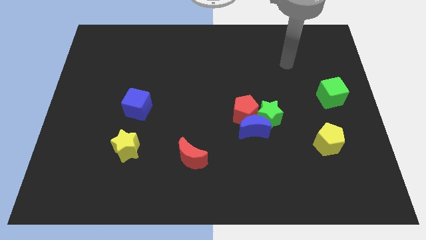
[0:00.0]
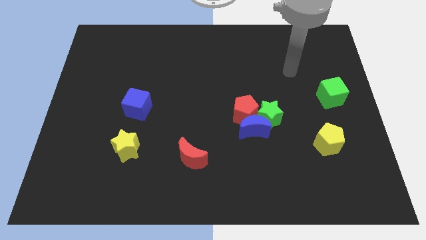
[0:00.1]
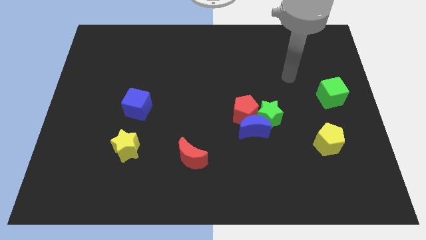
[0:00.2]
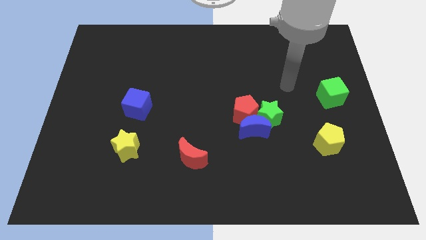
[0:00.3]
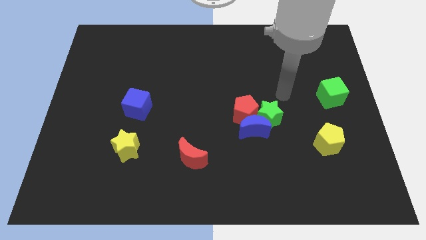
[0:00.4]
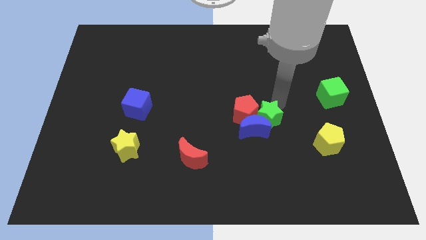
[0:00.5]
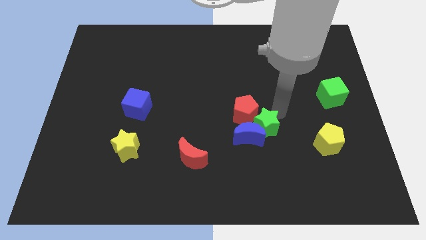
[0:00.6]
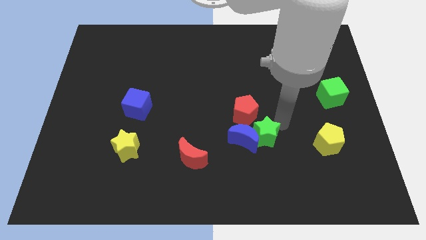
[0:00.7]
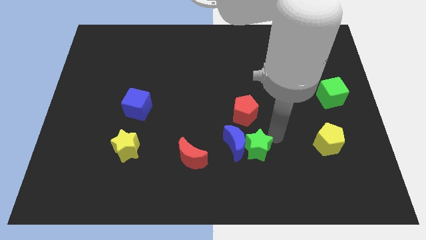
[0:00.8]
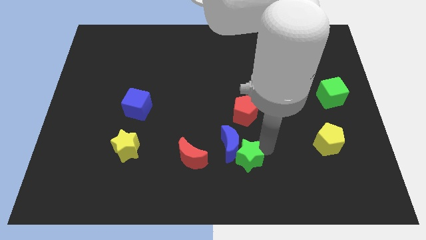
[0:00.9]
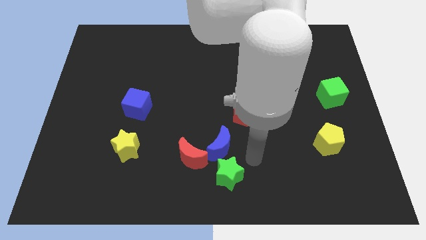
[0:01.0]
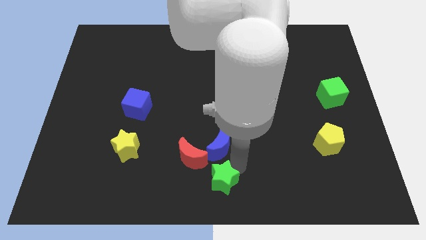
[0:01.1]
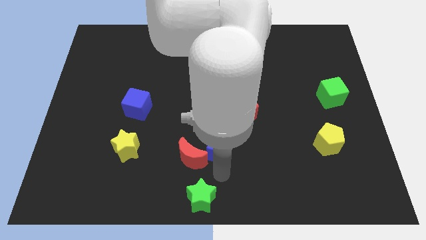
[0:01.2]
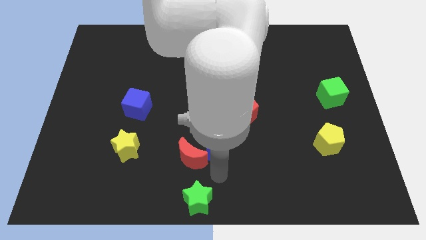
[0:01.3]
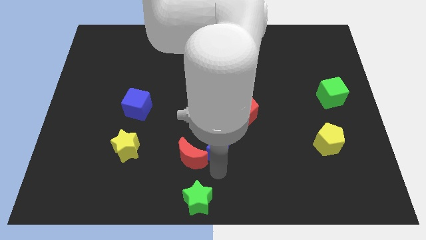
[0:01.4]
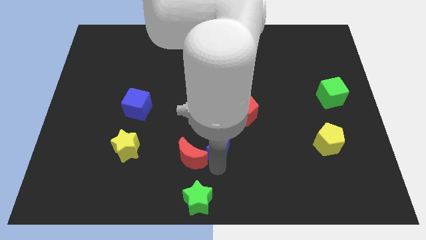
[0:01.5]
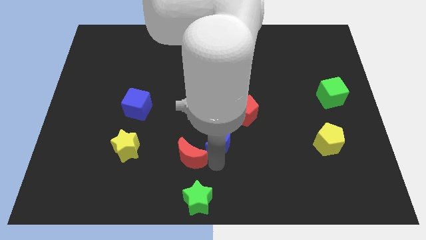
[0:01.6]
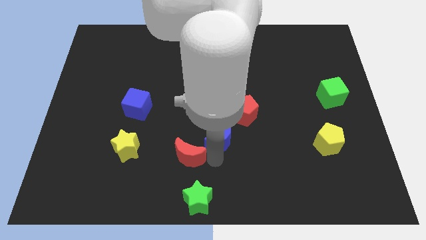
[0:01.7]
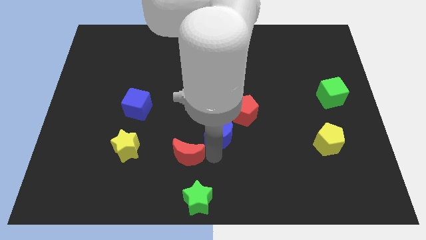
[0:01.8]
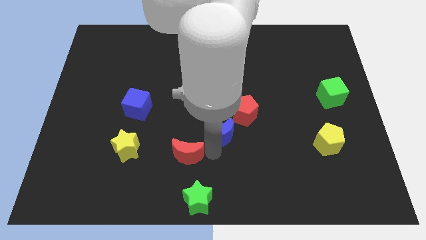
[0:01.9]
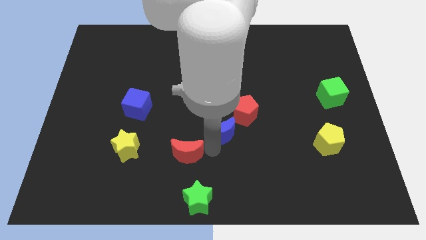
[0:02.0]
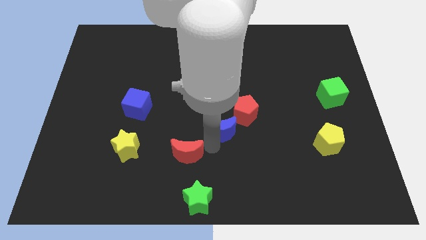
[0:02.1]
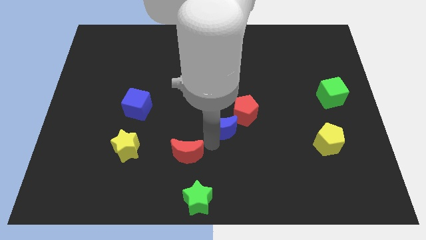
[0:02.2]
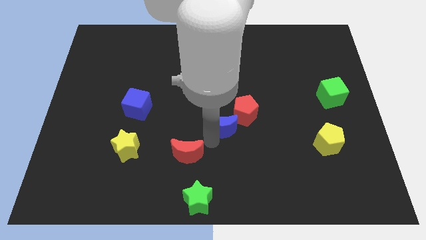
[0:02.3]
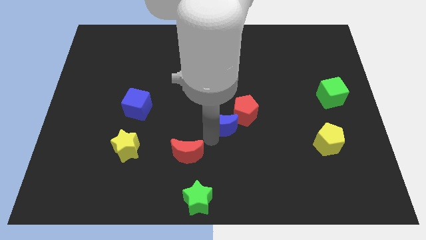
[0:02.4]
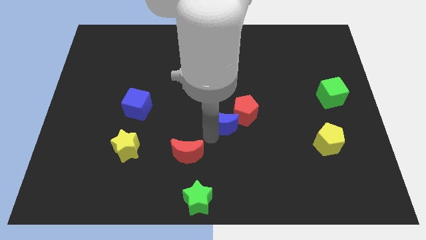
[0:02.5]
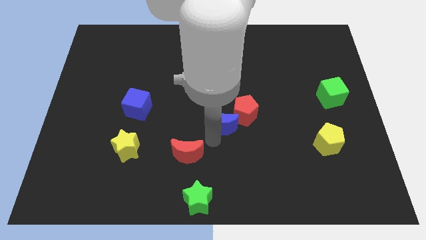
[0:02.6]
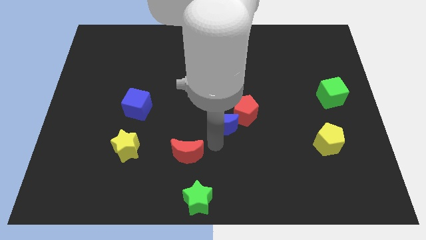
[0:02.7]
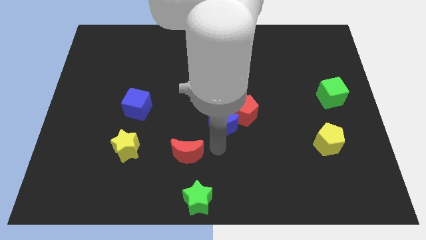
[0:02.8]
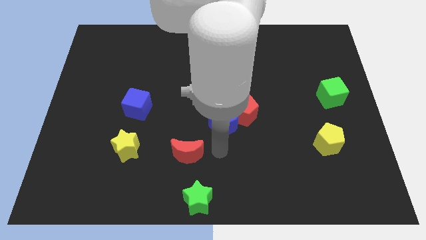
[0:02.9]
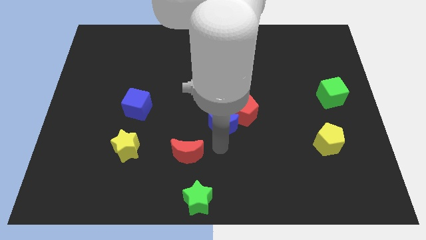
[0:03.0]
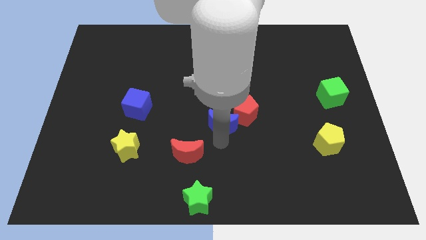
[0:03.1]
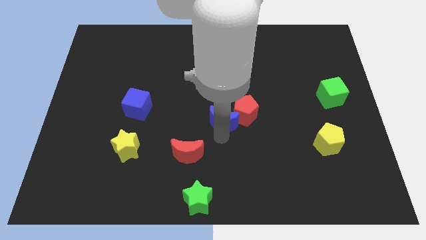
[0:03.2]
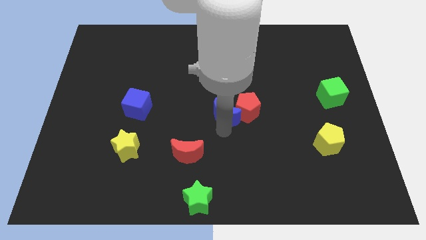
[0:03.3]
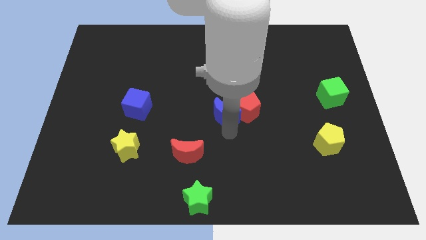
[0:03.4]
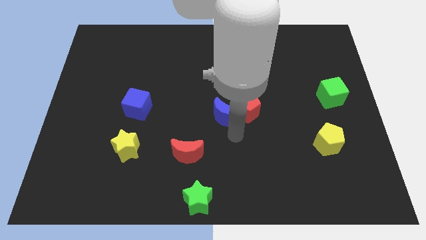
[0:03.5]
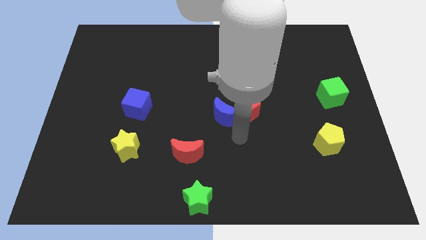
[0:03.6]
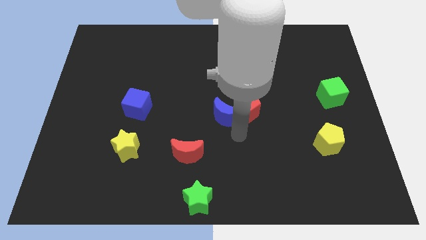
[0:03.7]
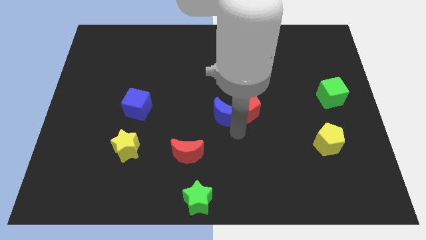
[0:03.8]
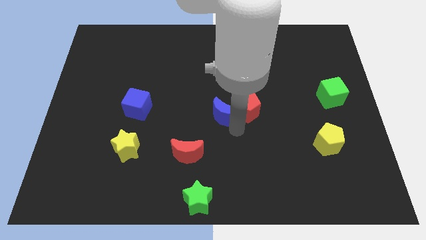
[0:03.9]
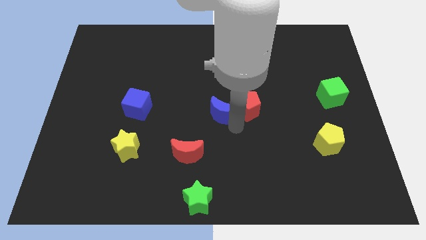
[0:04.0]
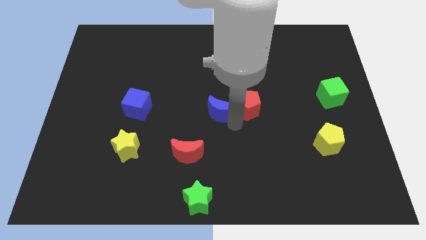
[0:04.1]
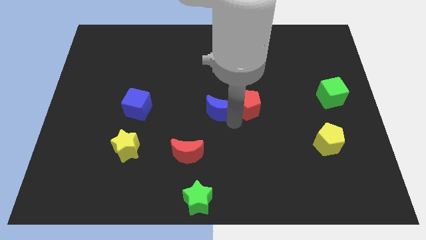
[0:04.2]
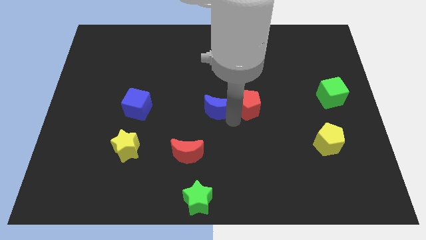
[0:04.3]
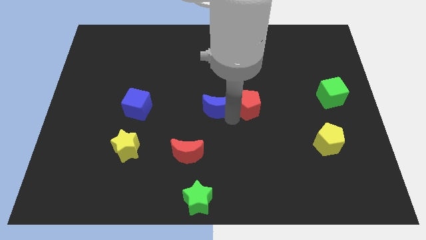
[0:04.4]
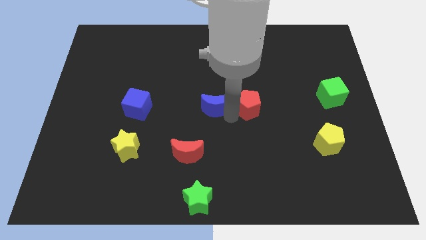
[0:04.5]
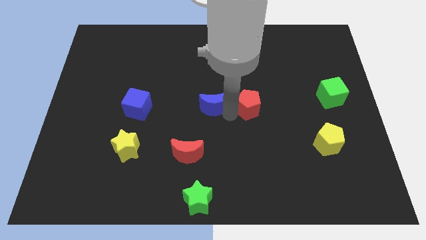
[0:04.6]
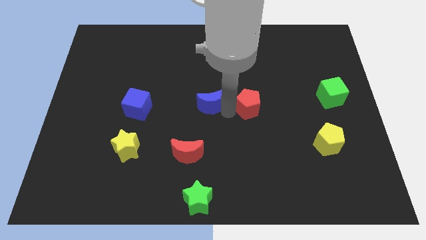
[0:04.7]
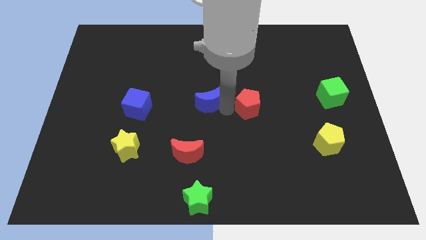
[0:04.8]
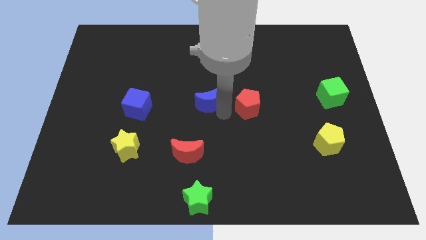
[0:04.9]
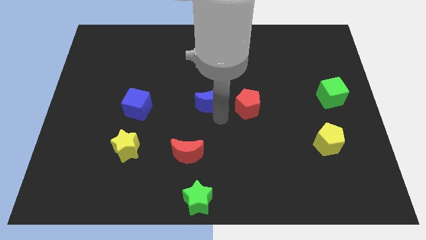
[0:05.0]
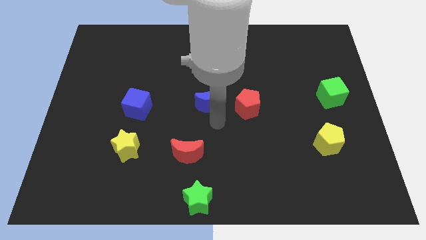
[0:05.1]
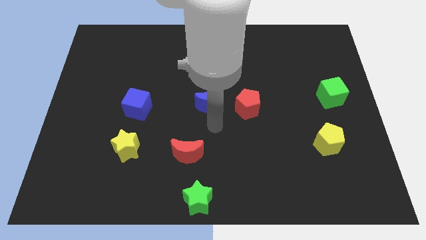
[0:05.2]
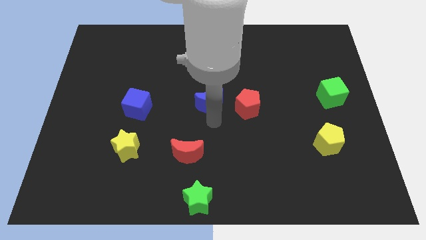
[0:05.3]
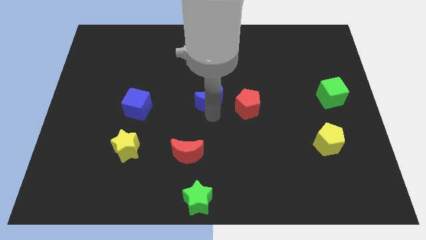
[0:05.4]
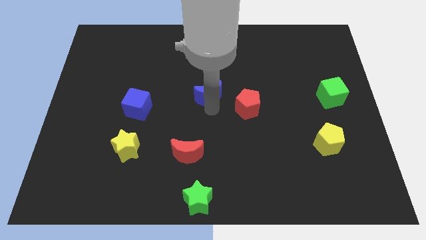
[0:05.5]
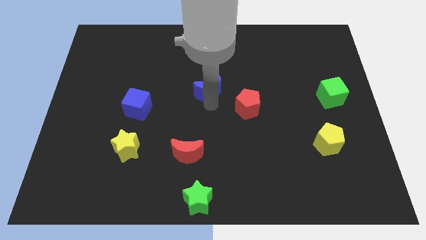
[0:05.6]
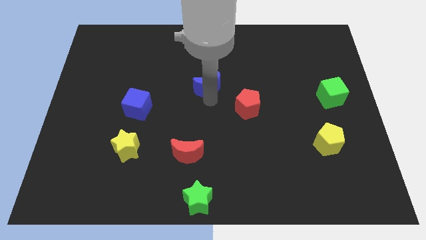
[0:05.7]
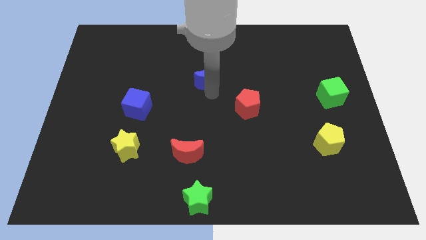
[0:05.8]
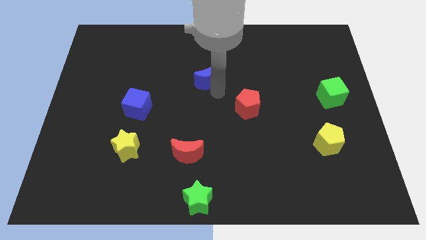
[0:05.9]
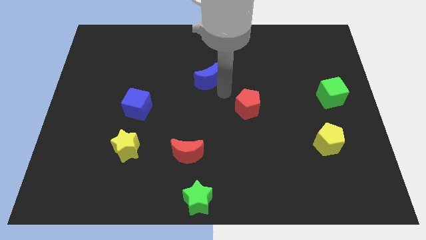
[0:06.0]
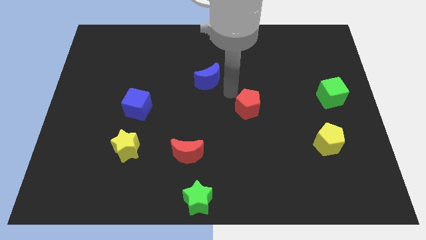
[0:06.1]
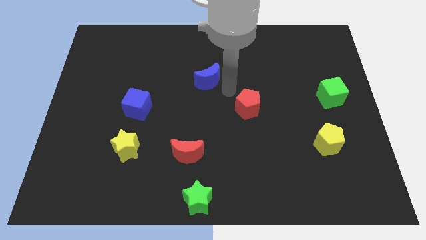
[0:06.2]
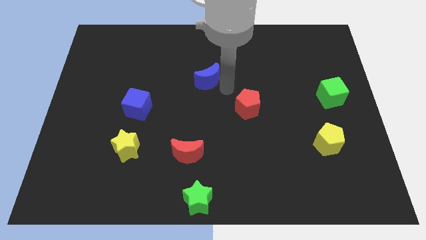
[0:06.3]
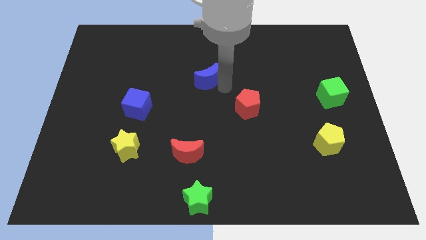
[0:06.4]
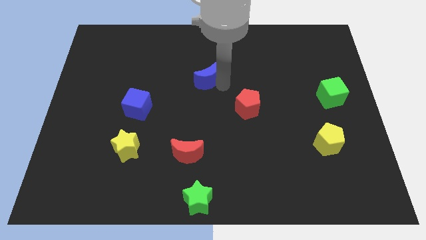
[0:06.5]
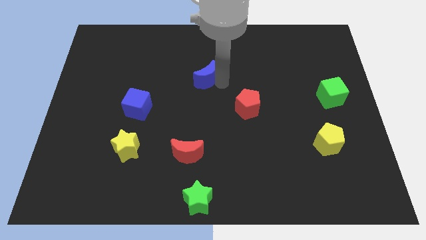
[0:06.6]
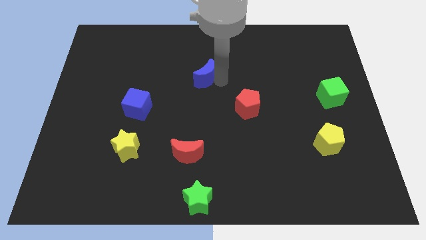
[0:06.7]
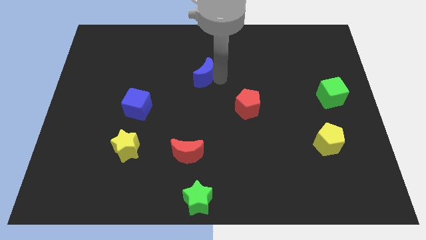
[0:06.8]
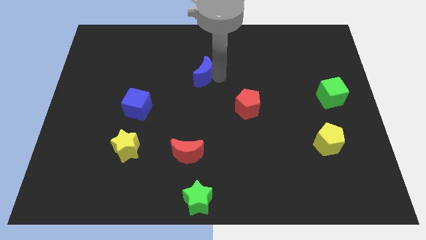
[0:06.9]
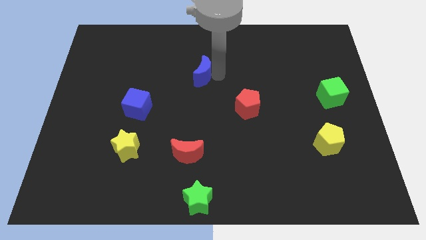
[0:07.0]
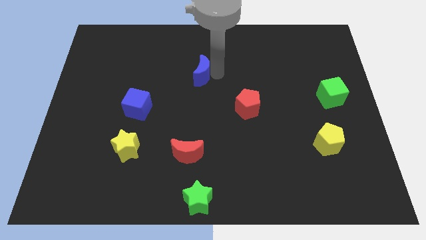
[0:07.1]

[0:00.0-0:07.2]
push the blue moon upwards and to the left

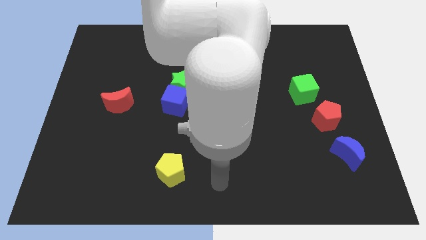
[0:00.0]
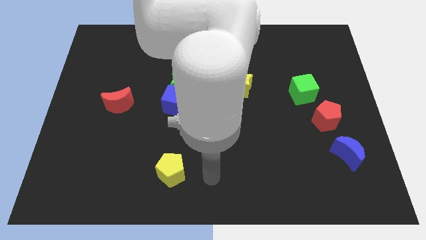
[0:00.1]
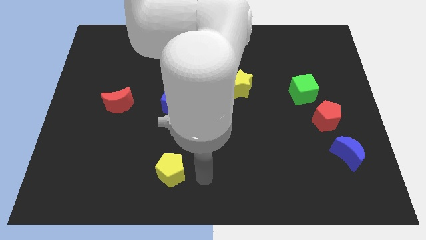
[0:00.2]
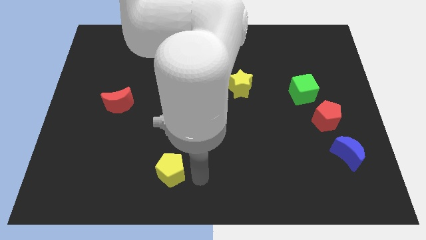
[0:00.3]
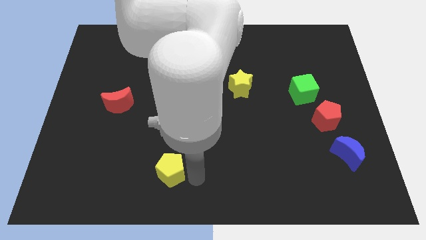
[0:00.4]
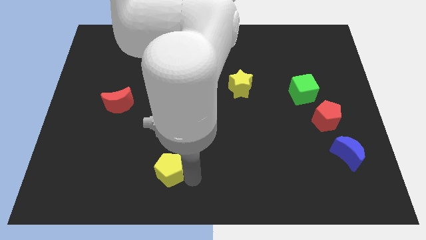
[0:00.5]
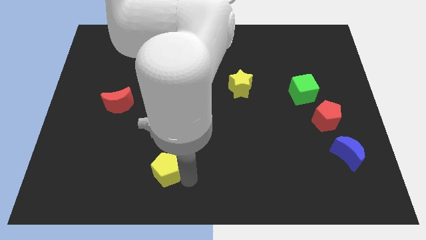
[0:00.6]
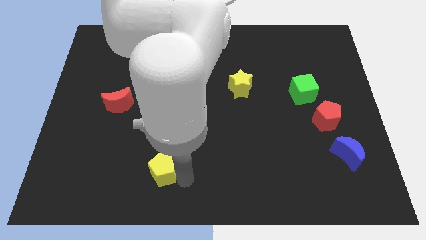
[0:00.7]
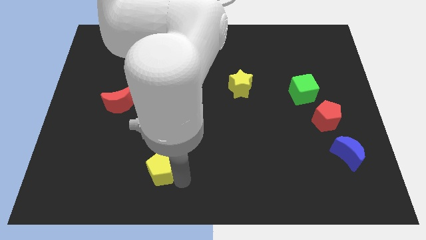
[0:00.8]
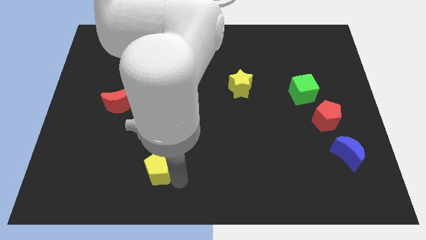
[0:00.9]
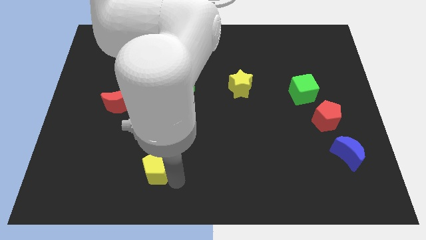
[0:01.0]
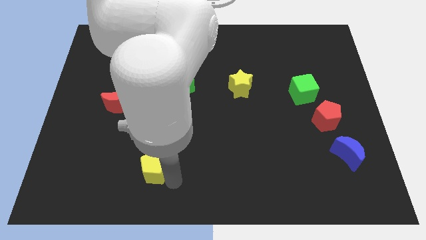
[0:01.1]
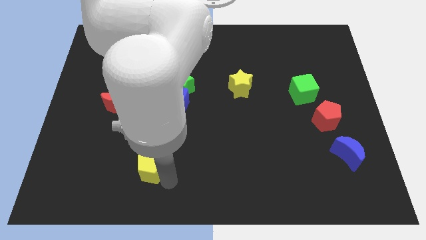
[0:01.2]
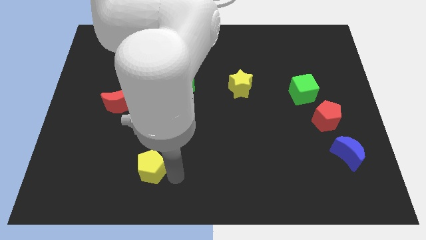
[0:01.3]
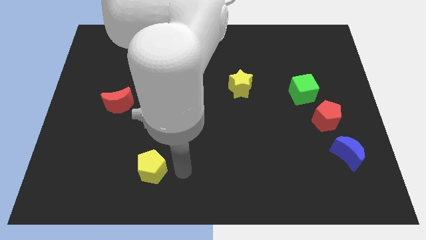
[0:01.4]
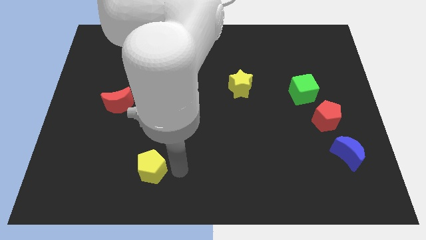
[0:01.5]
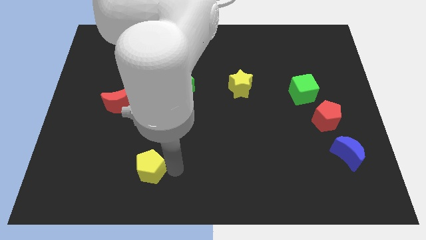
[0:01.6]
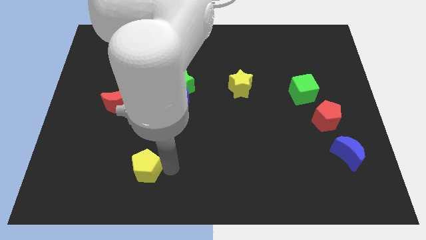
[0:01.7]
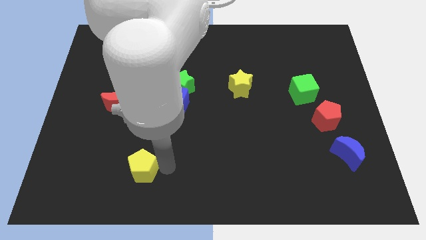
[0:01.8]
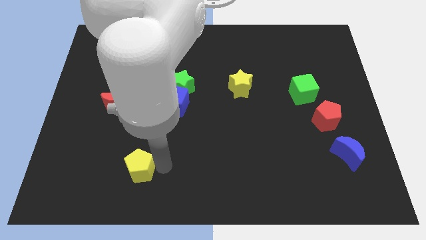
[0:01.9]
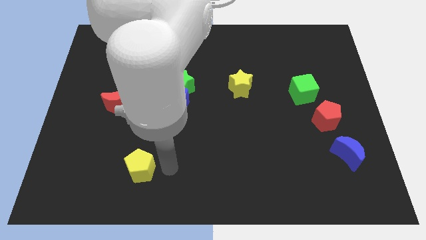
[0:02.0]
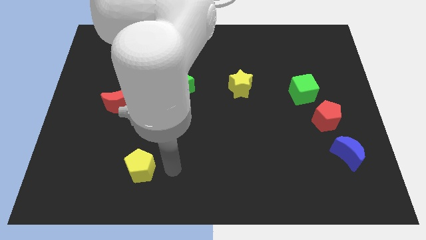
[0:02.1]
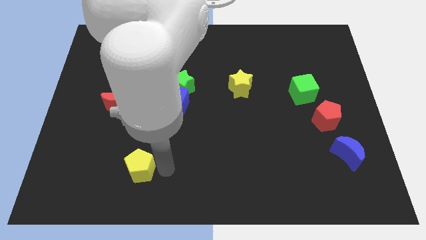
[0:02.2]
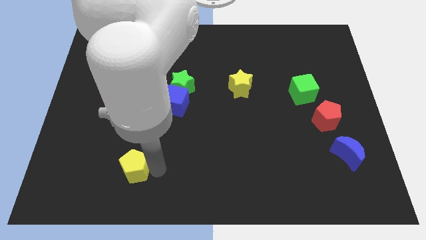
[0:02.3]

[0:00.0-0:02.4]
move the yellow pentagon left slightly
